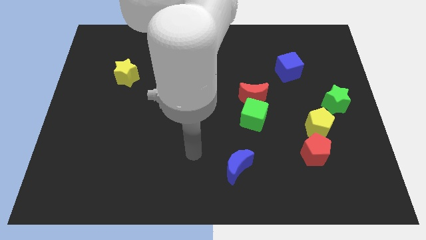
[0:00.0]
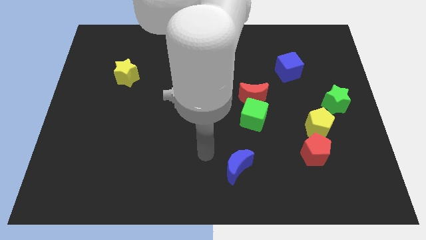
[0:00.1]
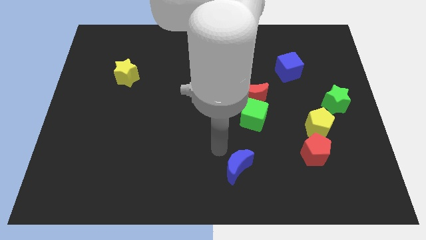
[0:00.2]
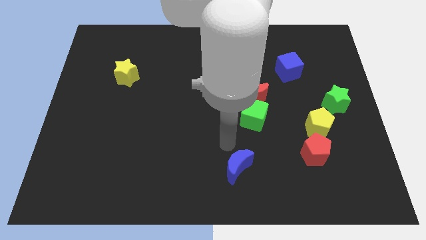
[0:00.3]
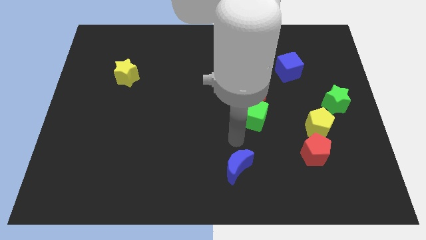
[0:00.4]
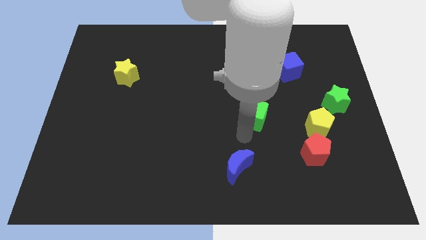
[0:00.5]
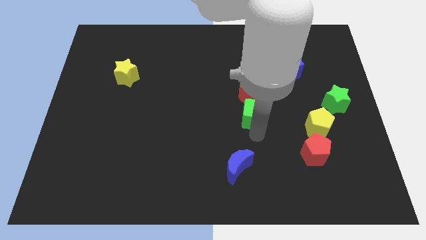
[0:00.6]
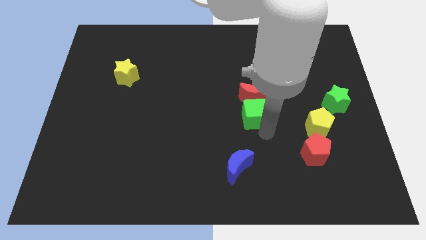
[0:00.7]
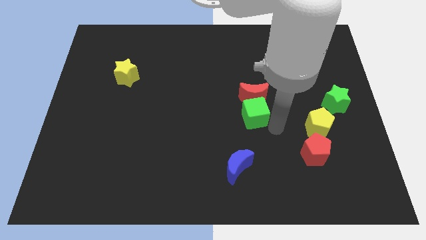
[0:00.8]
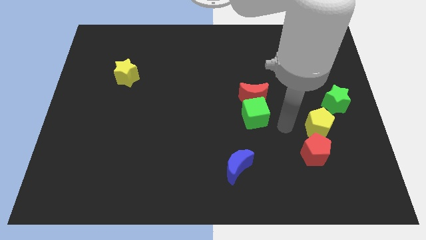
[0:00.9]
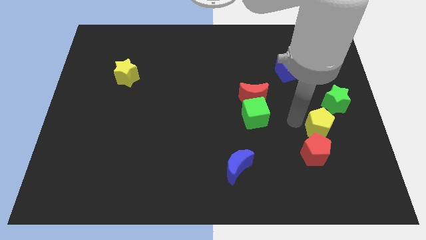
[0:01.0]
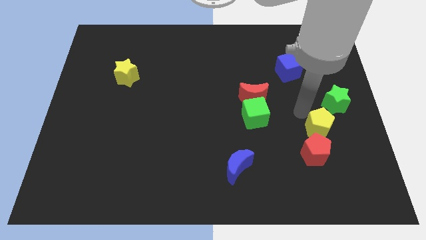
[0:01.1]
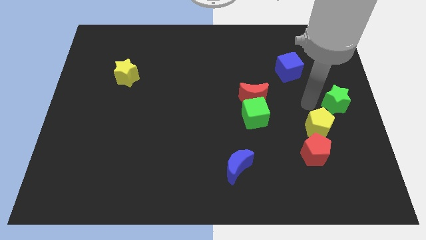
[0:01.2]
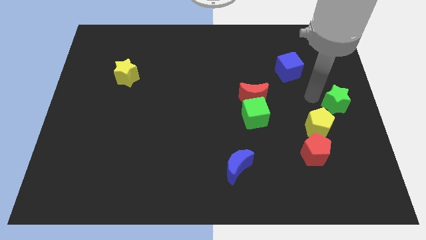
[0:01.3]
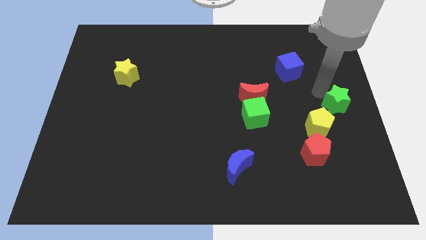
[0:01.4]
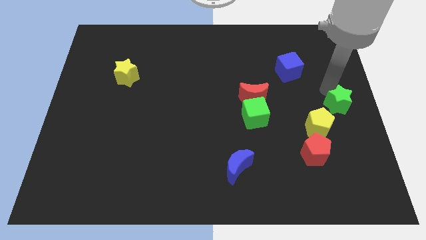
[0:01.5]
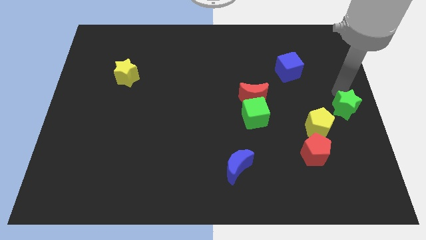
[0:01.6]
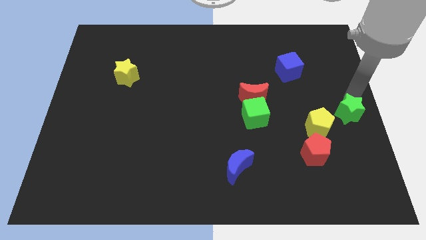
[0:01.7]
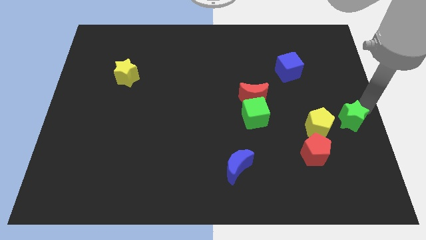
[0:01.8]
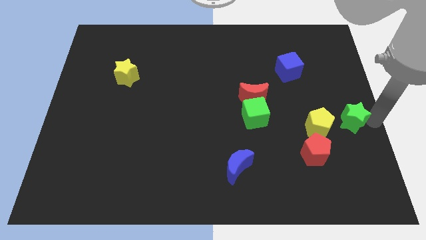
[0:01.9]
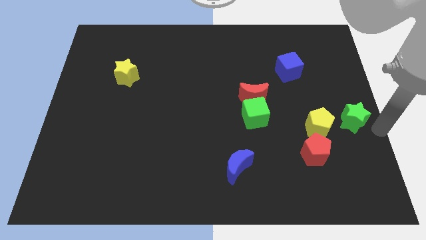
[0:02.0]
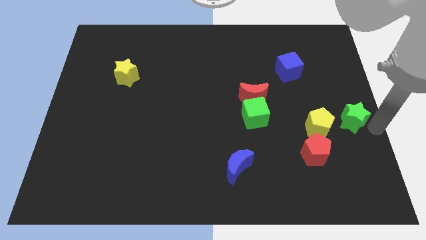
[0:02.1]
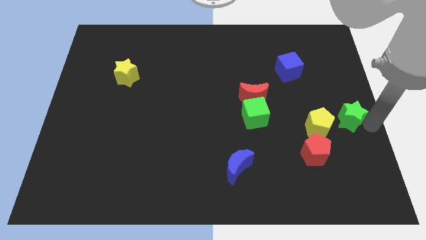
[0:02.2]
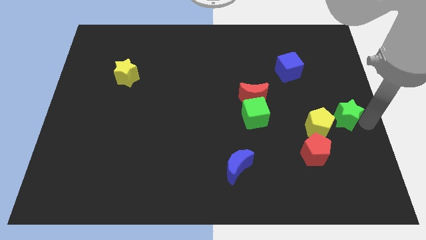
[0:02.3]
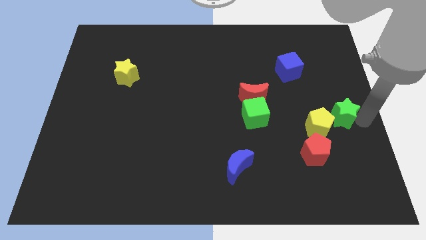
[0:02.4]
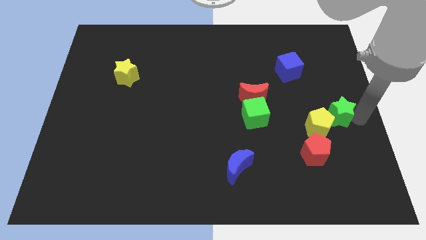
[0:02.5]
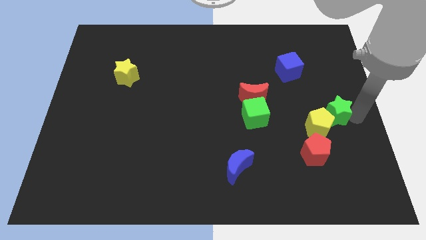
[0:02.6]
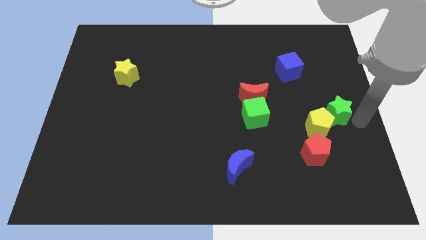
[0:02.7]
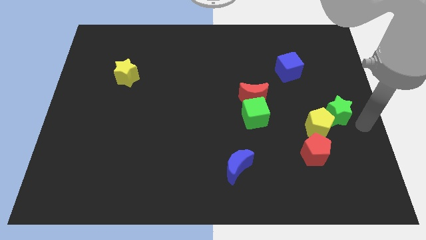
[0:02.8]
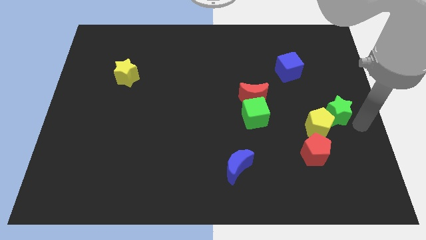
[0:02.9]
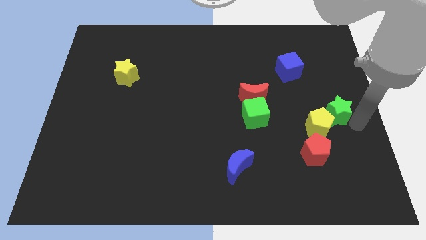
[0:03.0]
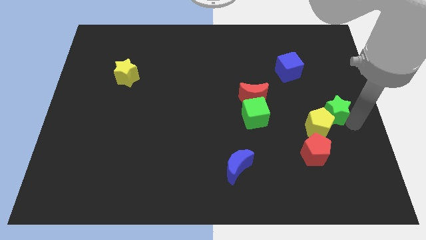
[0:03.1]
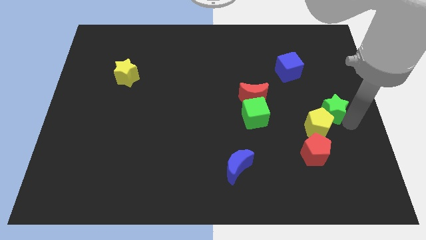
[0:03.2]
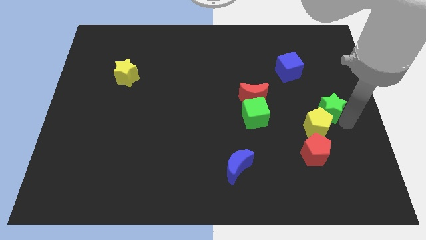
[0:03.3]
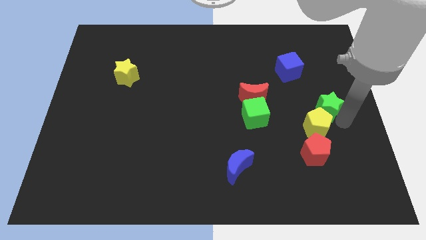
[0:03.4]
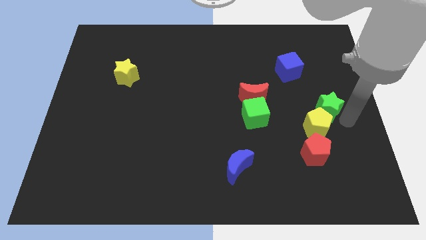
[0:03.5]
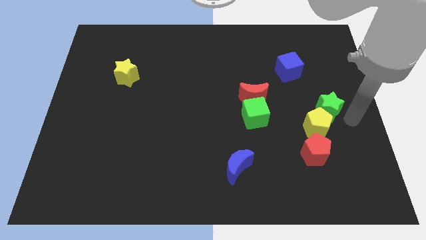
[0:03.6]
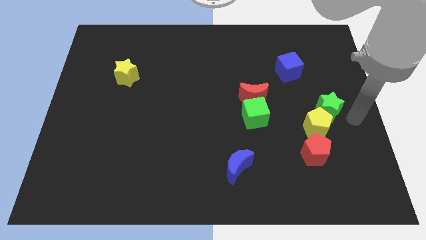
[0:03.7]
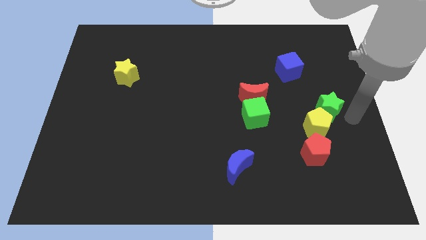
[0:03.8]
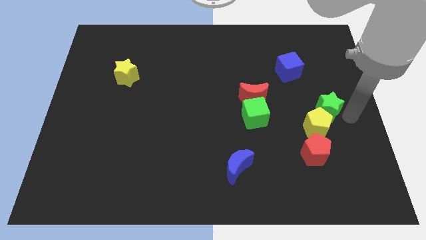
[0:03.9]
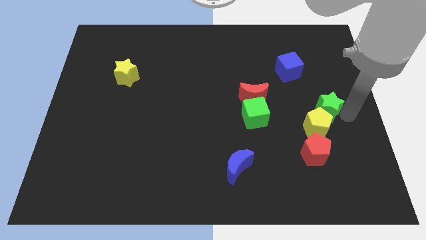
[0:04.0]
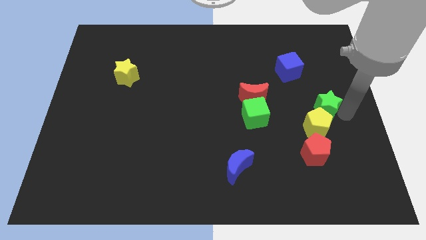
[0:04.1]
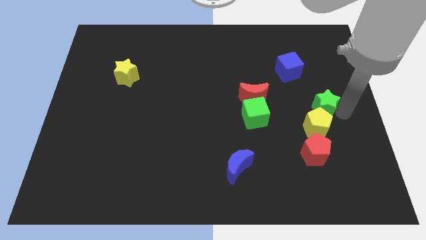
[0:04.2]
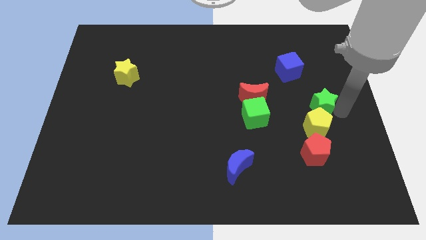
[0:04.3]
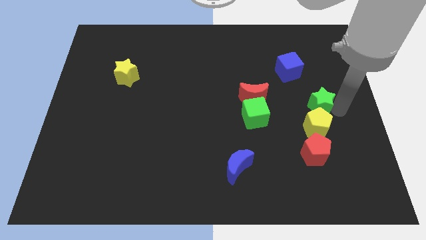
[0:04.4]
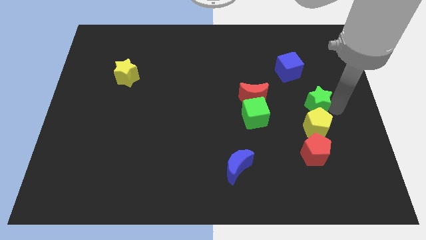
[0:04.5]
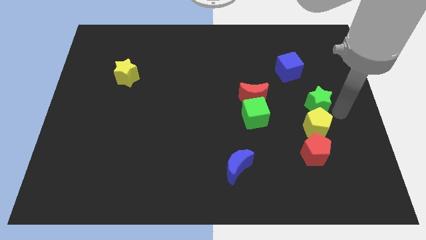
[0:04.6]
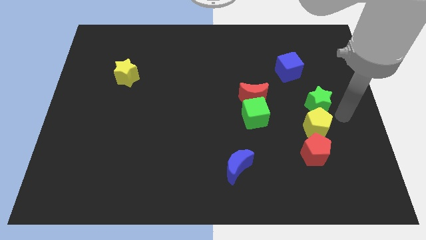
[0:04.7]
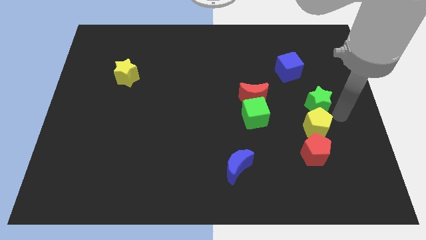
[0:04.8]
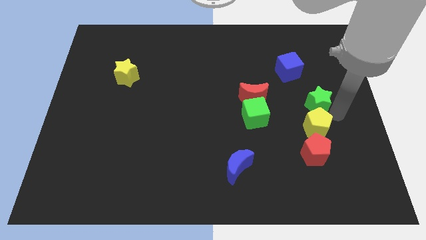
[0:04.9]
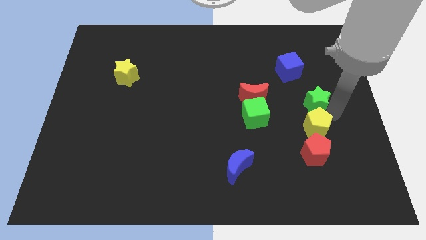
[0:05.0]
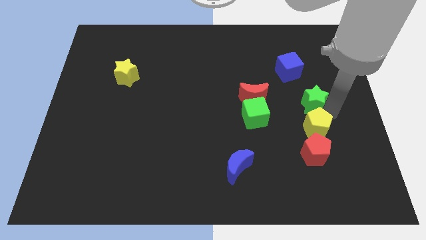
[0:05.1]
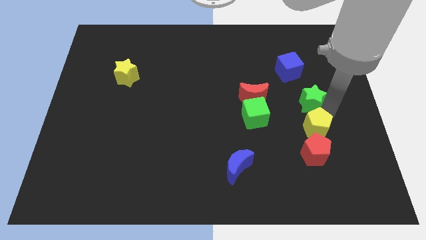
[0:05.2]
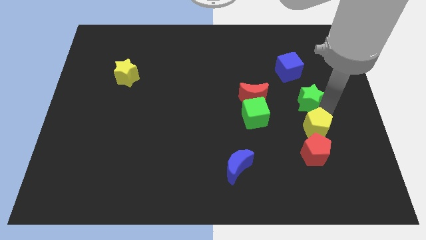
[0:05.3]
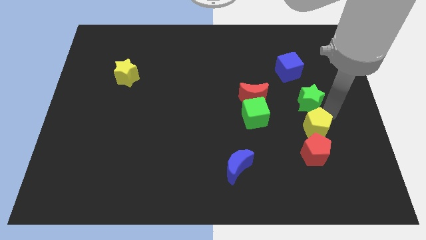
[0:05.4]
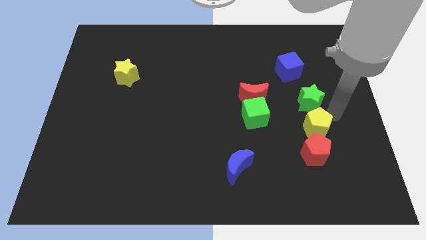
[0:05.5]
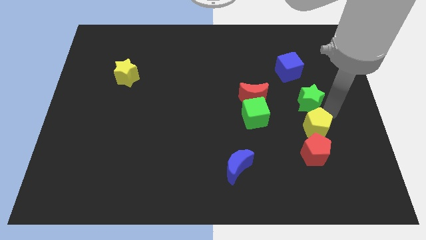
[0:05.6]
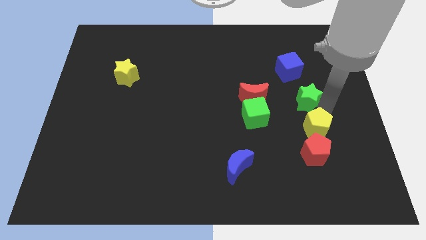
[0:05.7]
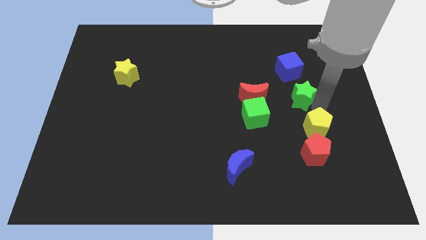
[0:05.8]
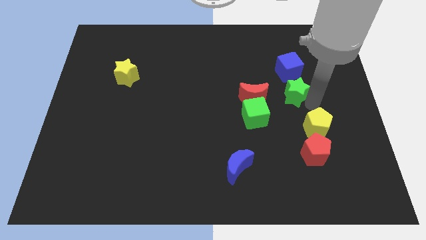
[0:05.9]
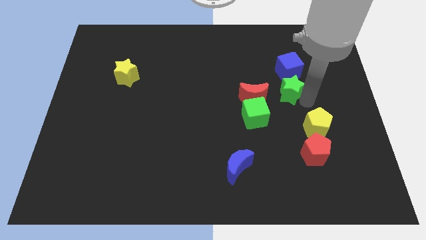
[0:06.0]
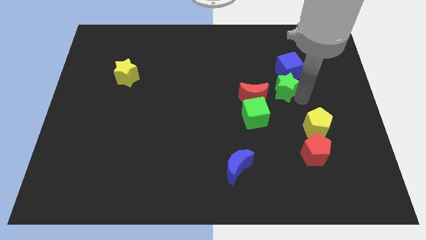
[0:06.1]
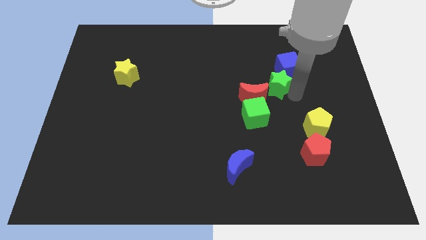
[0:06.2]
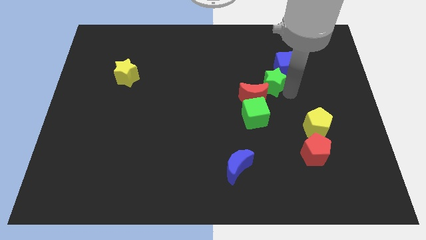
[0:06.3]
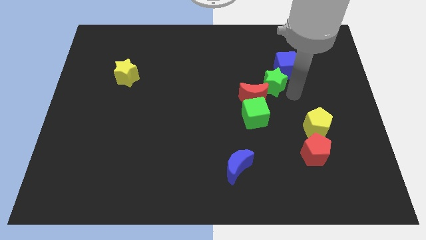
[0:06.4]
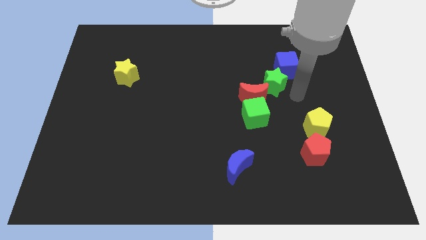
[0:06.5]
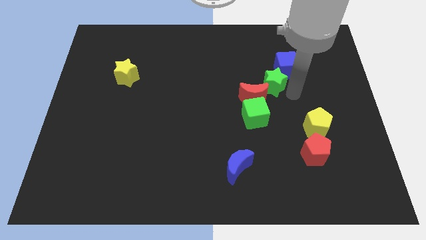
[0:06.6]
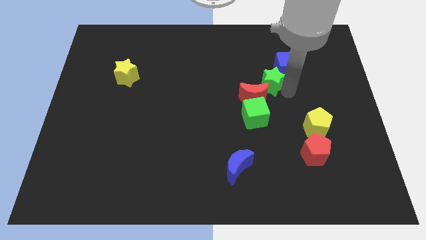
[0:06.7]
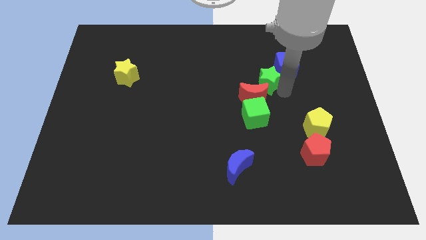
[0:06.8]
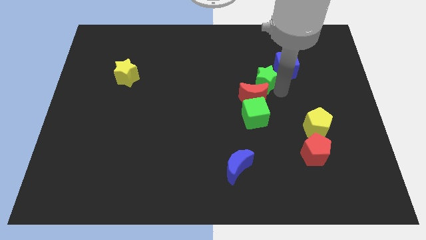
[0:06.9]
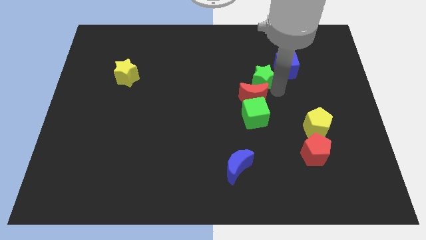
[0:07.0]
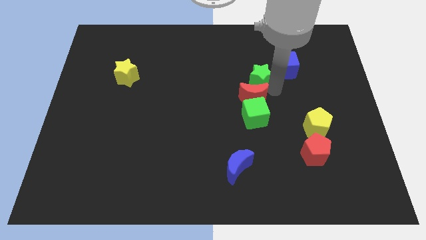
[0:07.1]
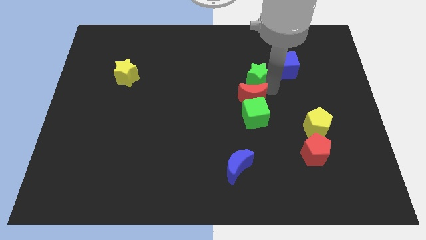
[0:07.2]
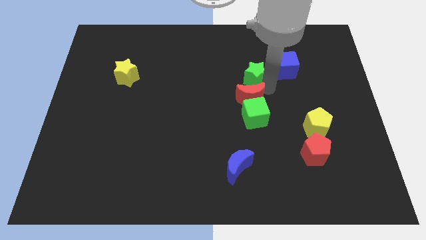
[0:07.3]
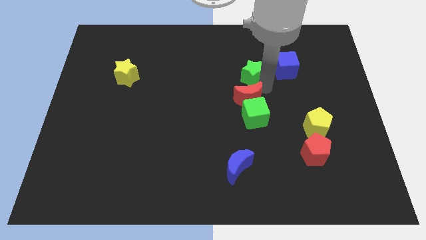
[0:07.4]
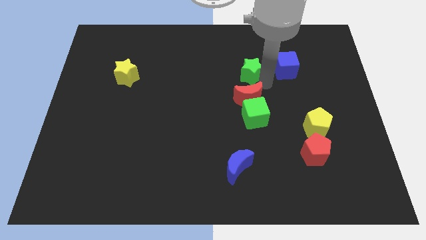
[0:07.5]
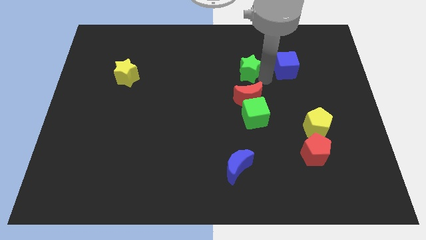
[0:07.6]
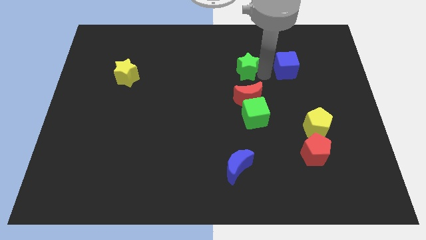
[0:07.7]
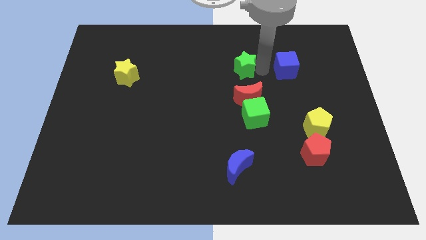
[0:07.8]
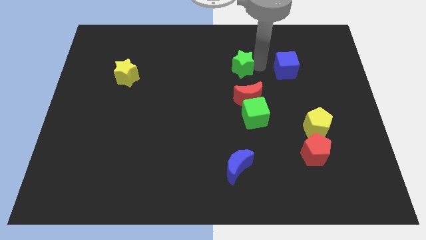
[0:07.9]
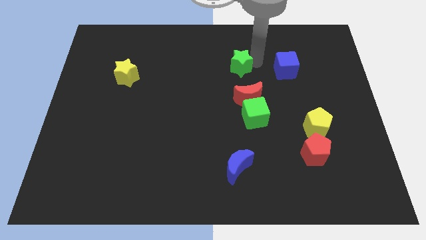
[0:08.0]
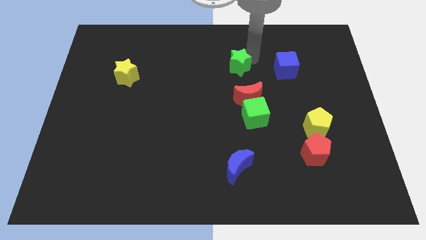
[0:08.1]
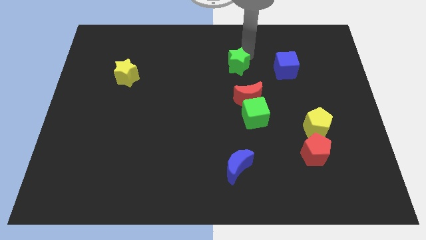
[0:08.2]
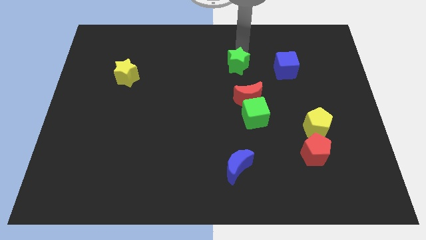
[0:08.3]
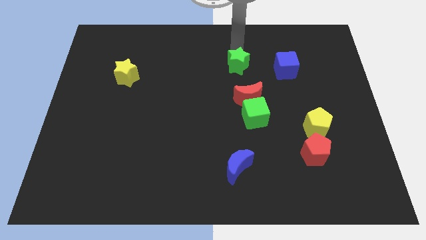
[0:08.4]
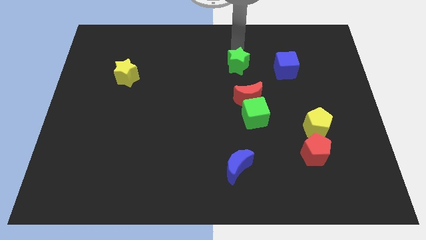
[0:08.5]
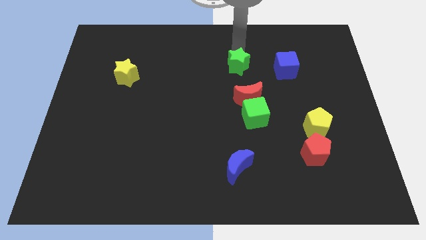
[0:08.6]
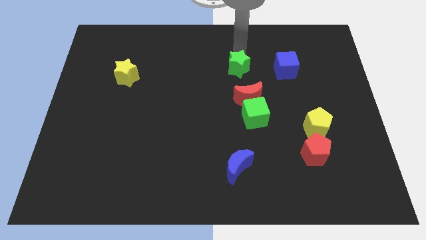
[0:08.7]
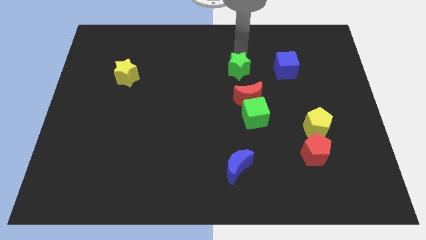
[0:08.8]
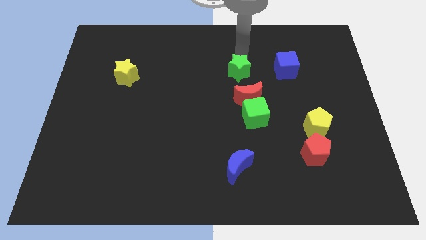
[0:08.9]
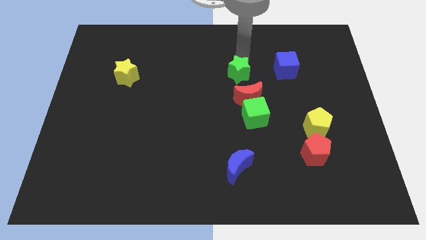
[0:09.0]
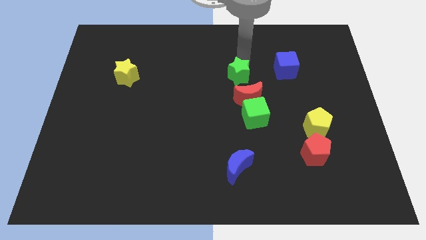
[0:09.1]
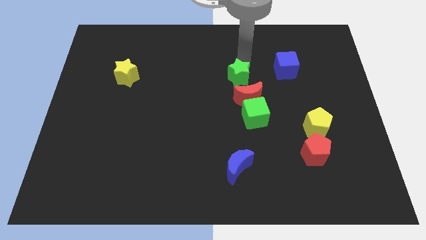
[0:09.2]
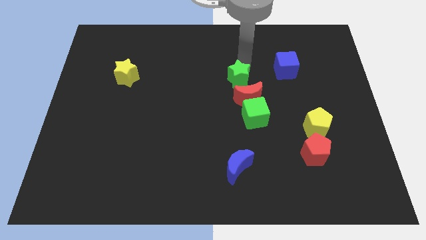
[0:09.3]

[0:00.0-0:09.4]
push the green star to the left
